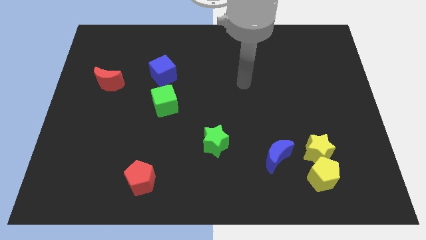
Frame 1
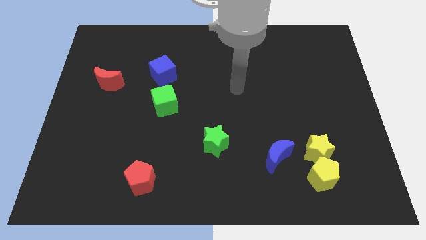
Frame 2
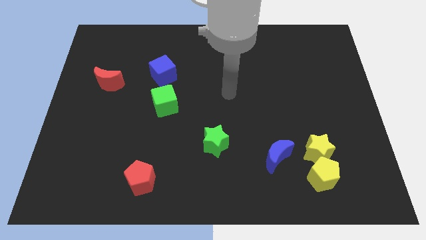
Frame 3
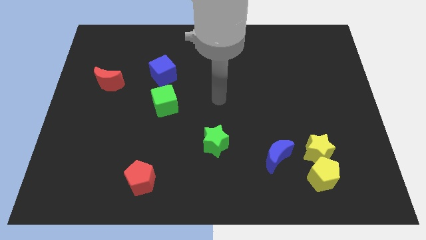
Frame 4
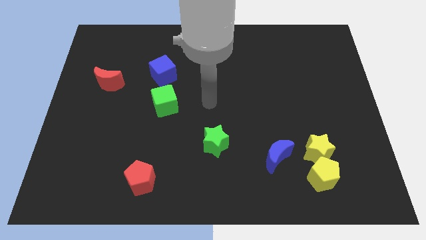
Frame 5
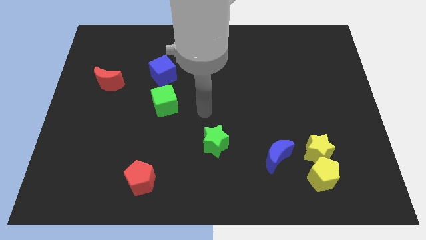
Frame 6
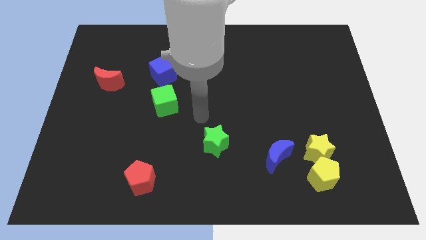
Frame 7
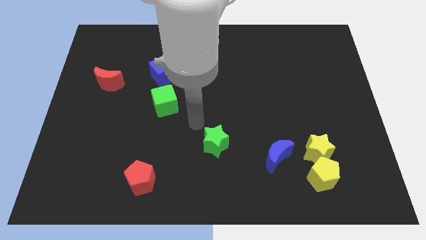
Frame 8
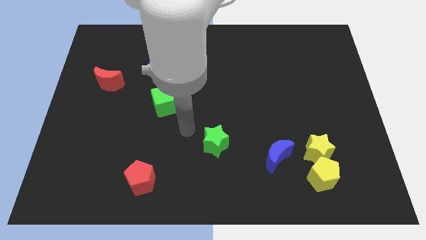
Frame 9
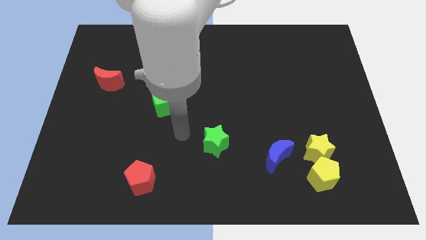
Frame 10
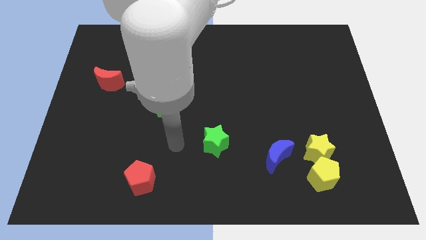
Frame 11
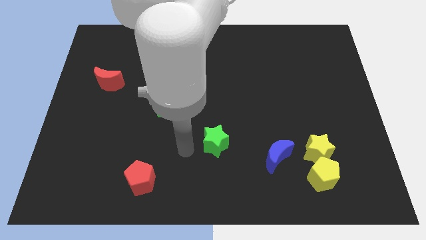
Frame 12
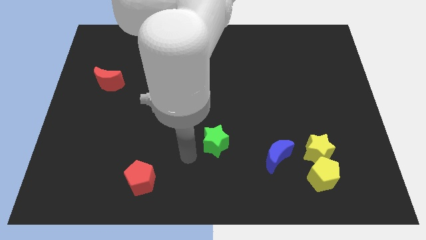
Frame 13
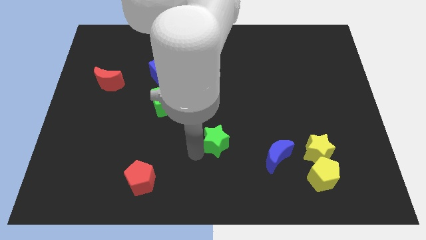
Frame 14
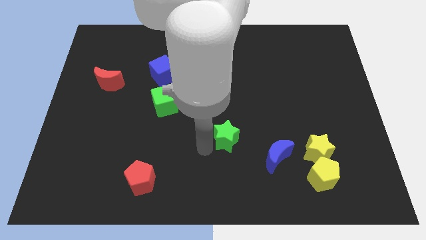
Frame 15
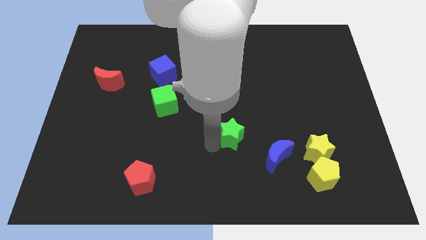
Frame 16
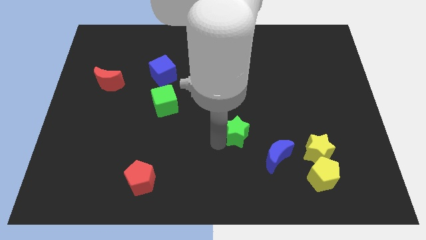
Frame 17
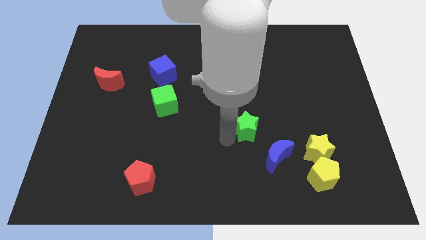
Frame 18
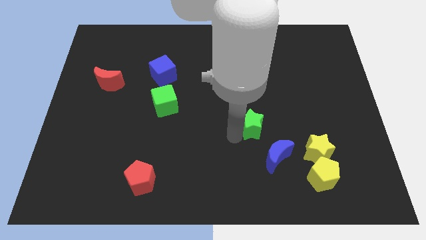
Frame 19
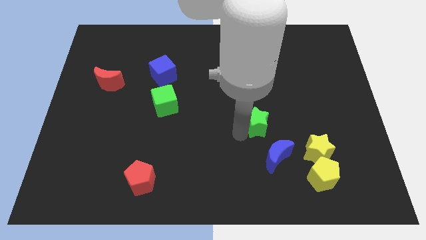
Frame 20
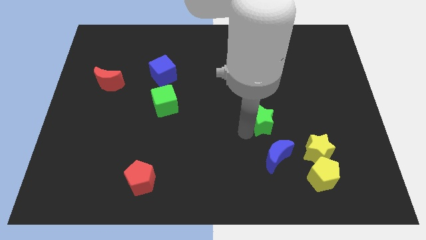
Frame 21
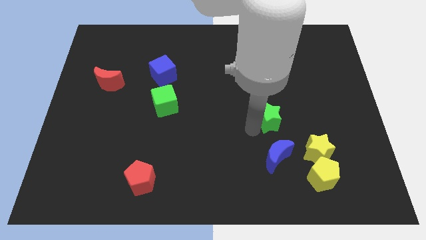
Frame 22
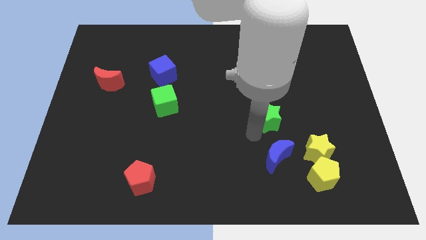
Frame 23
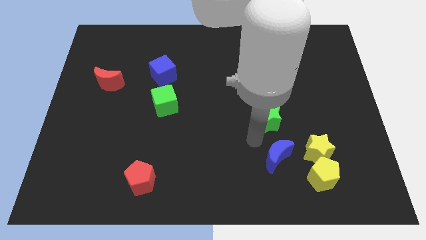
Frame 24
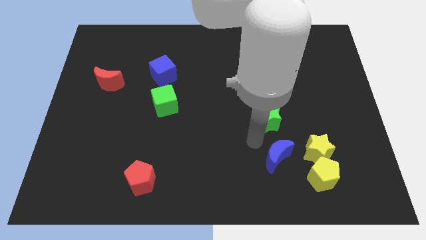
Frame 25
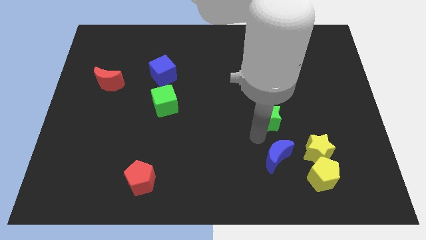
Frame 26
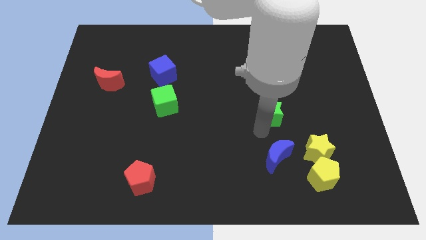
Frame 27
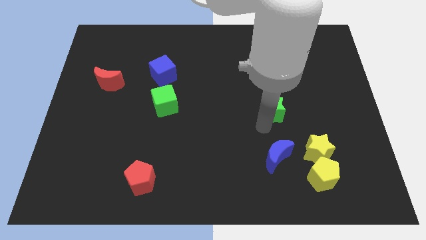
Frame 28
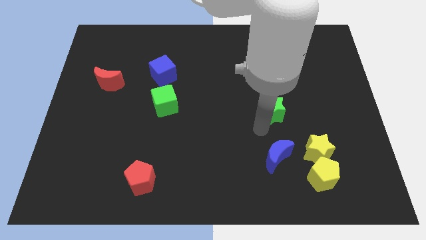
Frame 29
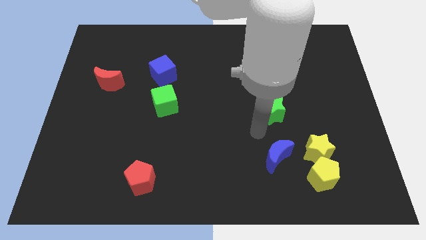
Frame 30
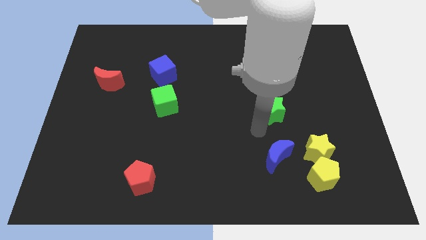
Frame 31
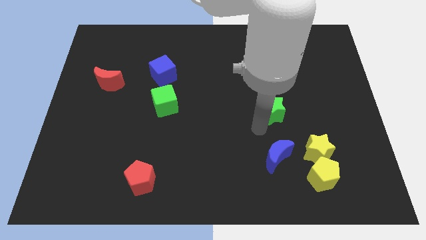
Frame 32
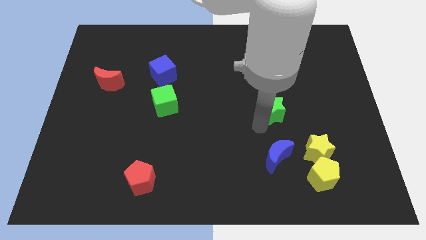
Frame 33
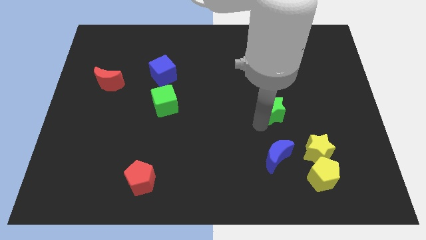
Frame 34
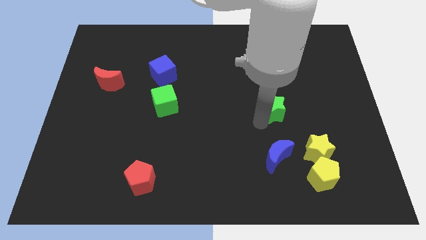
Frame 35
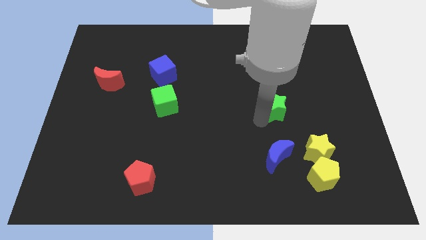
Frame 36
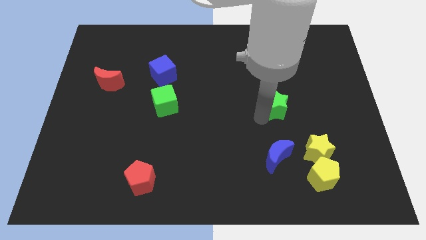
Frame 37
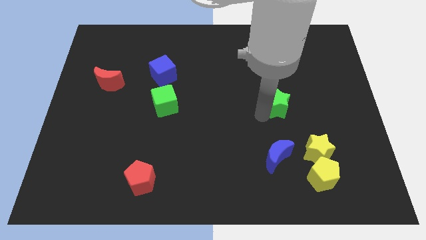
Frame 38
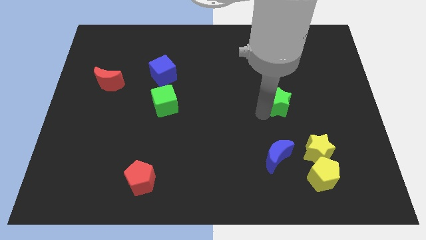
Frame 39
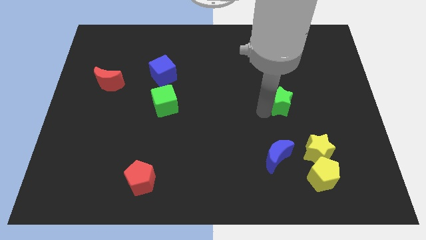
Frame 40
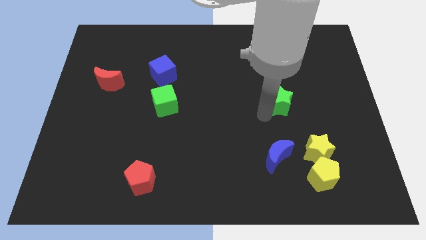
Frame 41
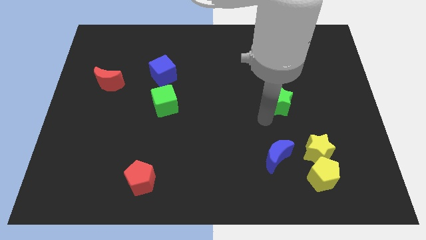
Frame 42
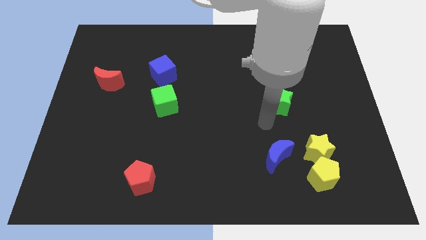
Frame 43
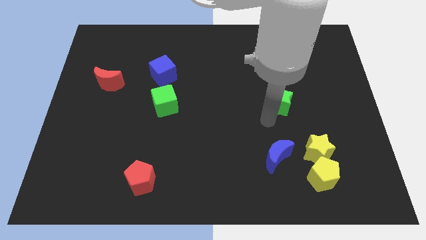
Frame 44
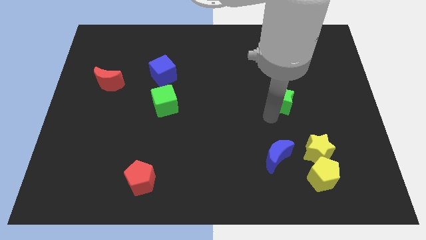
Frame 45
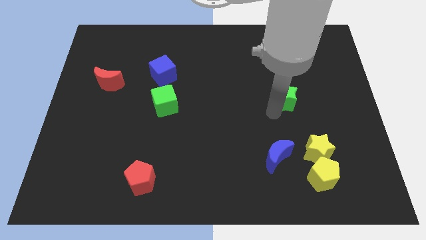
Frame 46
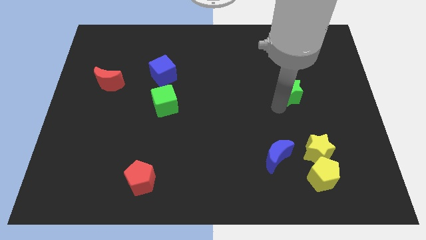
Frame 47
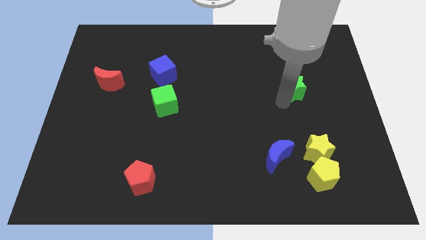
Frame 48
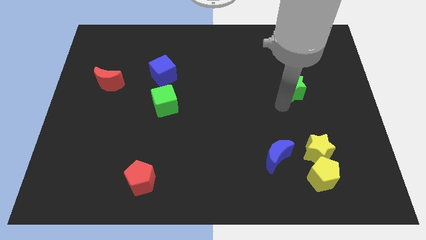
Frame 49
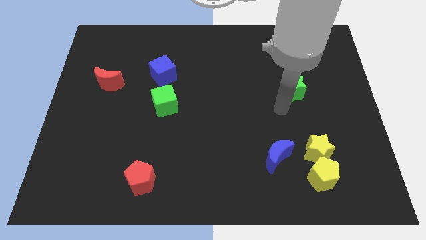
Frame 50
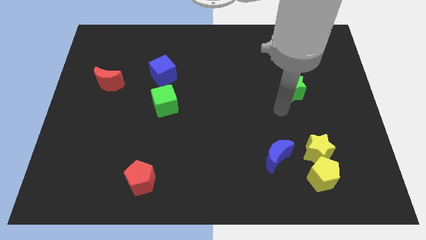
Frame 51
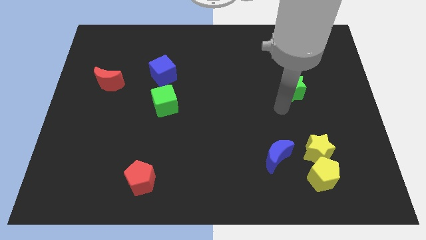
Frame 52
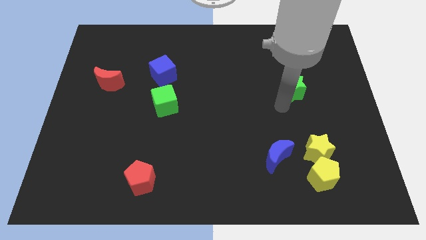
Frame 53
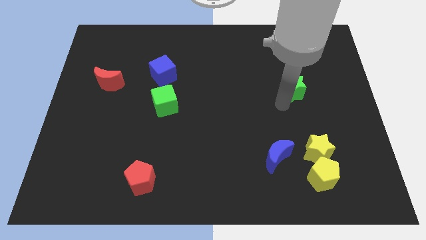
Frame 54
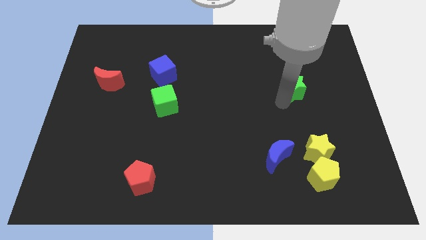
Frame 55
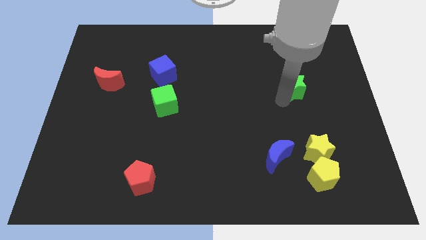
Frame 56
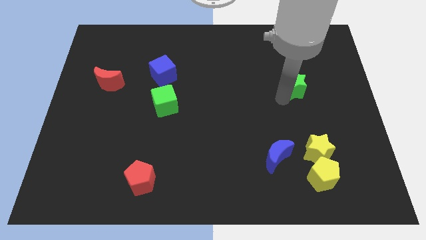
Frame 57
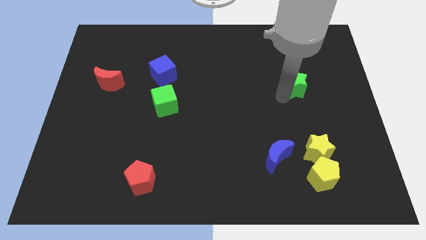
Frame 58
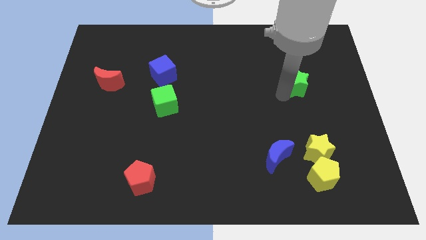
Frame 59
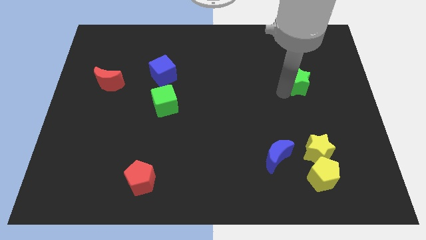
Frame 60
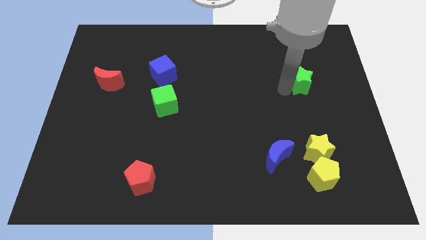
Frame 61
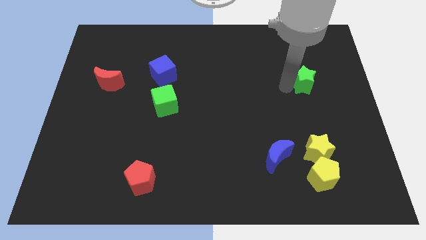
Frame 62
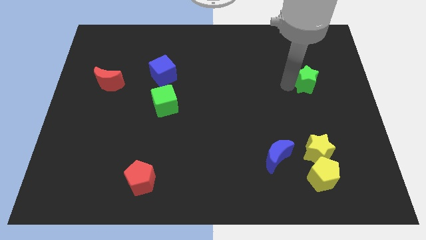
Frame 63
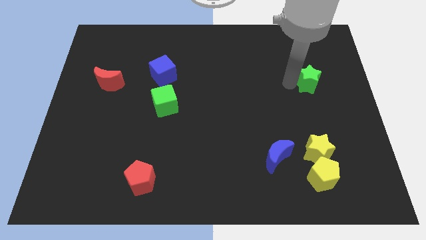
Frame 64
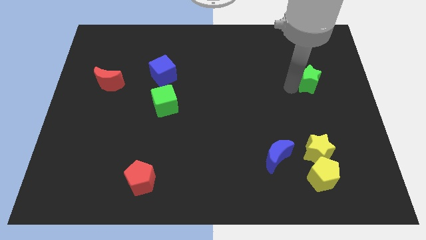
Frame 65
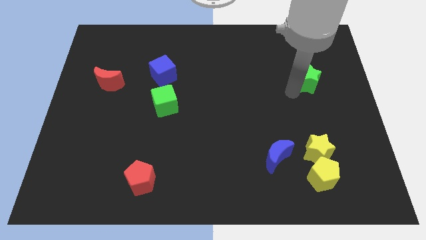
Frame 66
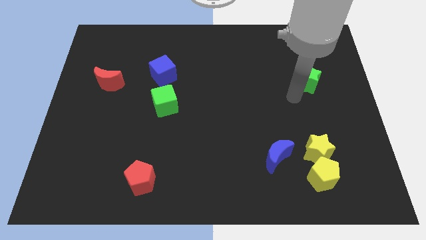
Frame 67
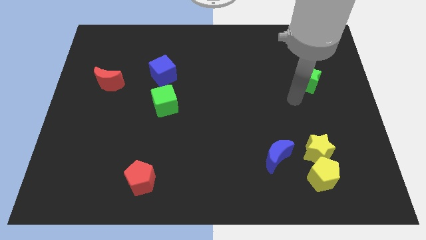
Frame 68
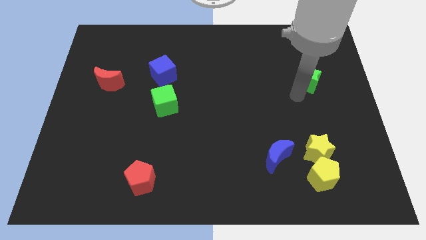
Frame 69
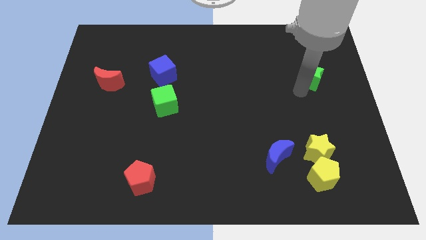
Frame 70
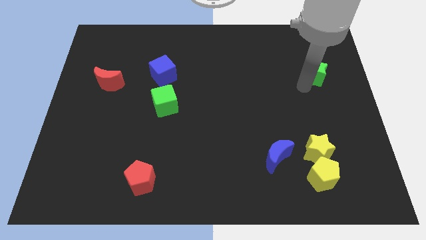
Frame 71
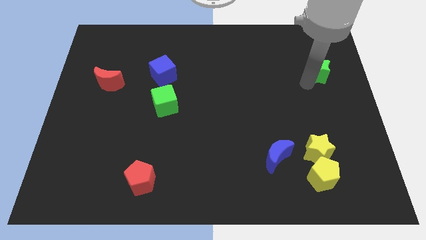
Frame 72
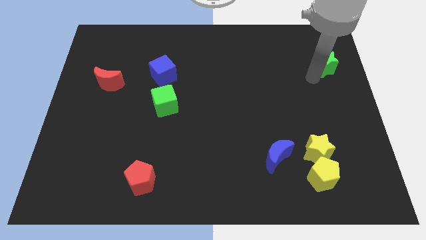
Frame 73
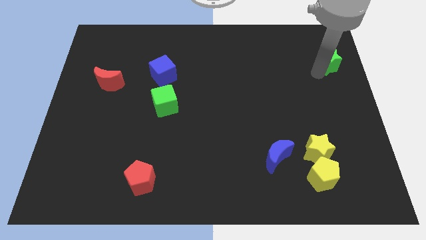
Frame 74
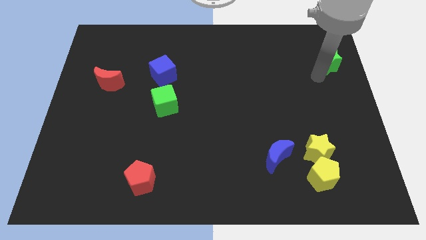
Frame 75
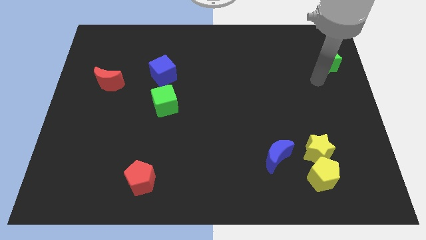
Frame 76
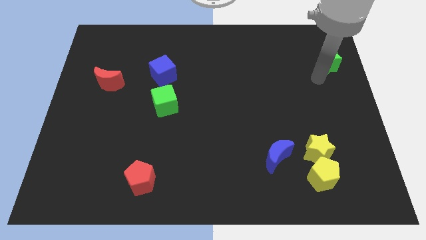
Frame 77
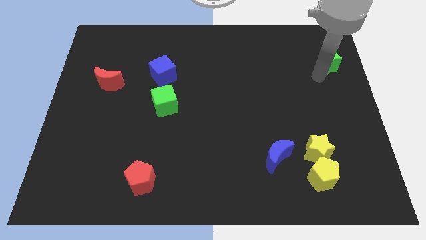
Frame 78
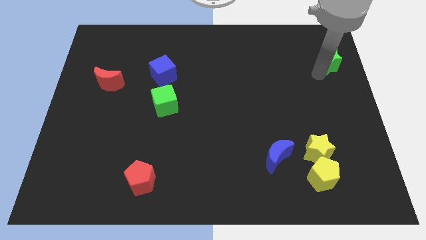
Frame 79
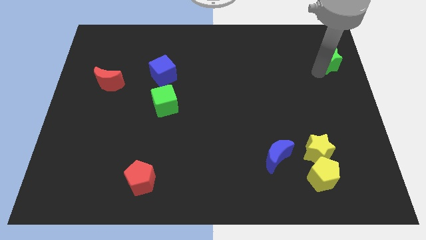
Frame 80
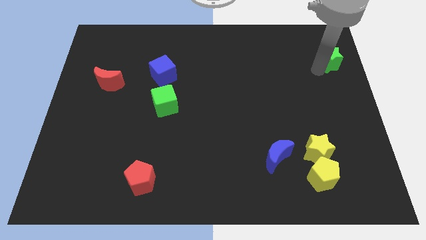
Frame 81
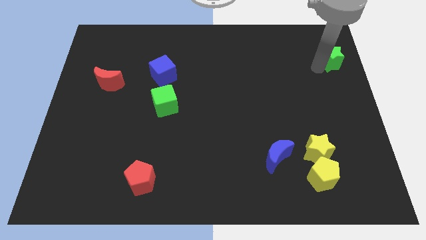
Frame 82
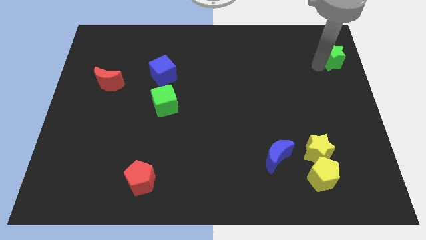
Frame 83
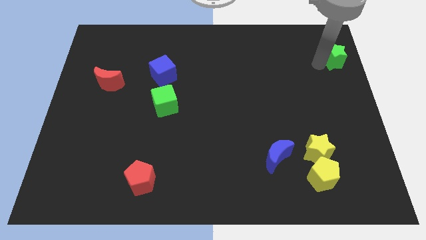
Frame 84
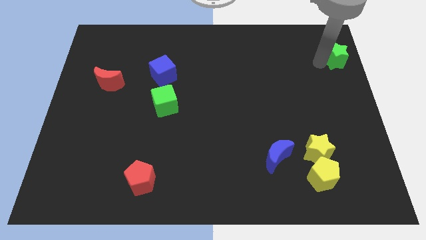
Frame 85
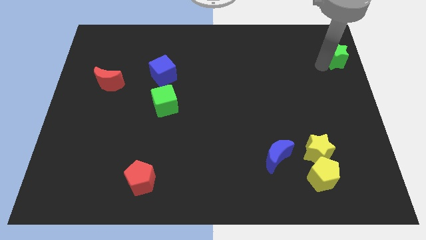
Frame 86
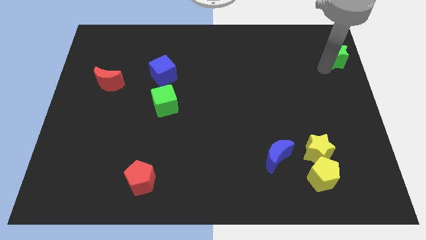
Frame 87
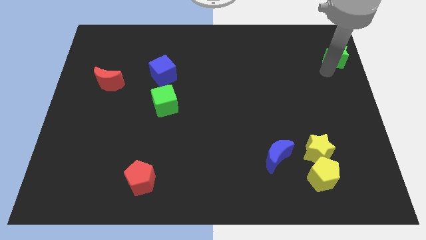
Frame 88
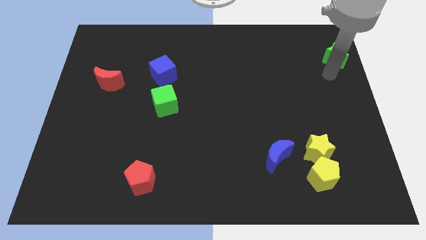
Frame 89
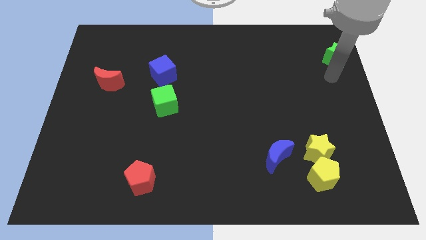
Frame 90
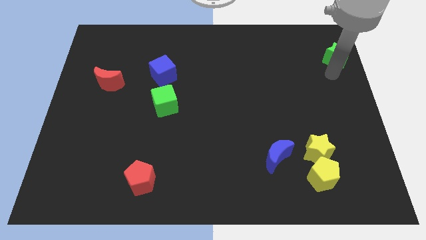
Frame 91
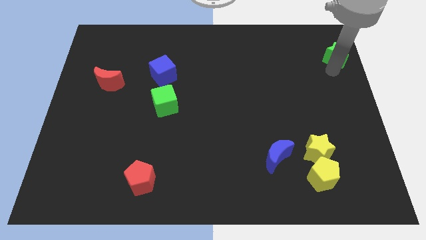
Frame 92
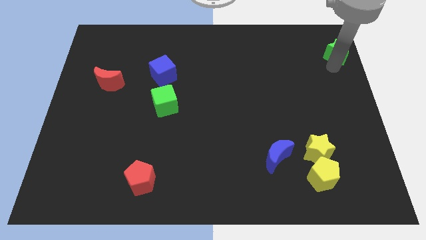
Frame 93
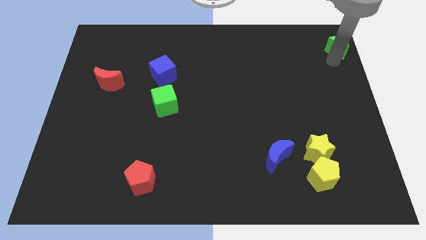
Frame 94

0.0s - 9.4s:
push the green star to the top right of the board
